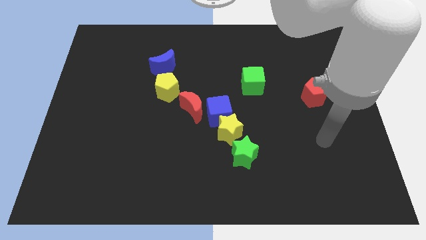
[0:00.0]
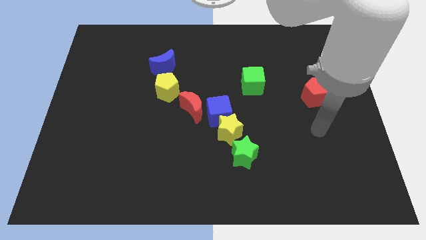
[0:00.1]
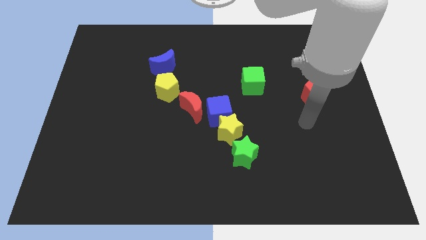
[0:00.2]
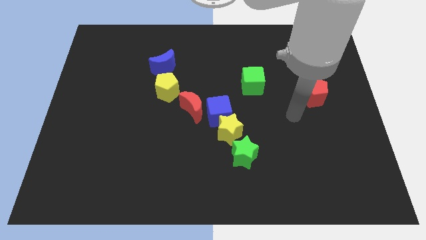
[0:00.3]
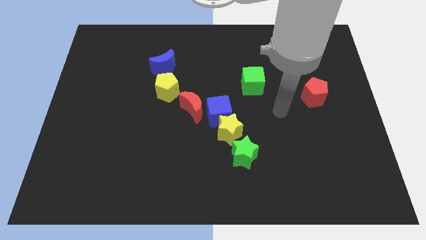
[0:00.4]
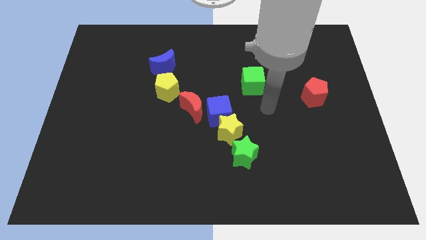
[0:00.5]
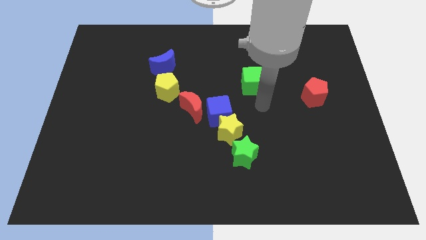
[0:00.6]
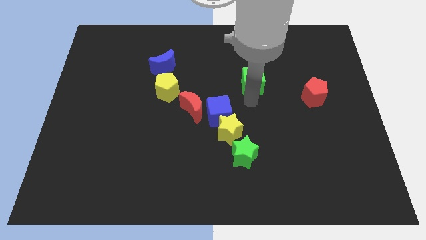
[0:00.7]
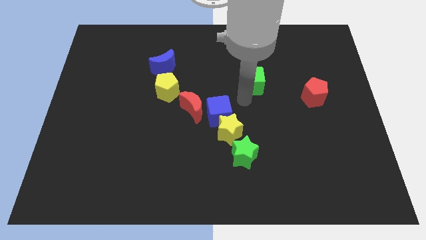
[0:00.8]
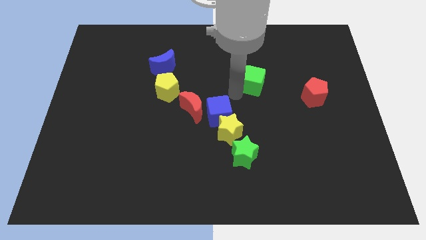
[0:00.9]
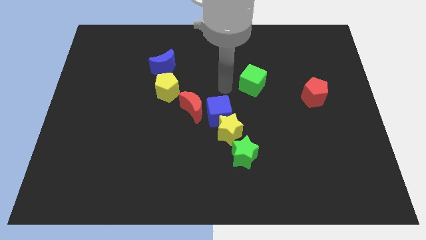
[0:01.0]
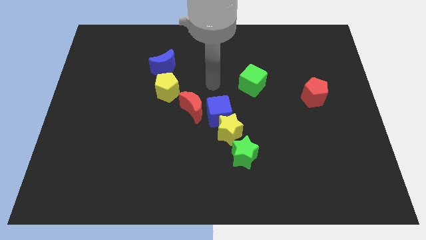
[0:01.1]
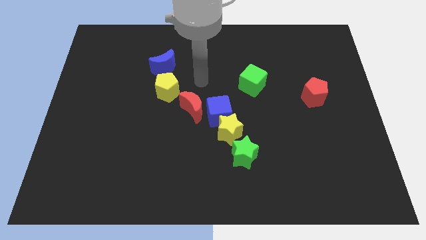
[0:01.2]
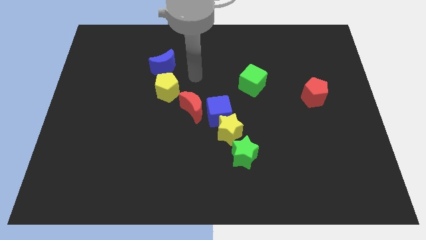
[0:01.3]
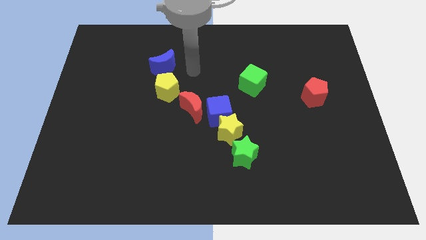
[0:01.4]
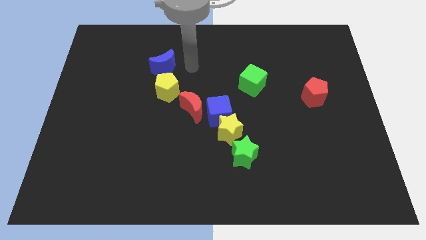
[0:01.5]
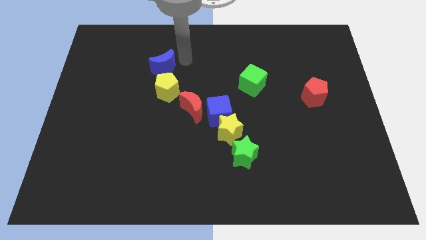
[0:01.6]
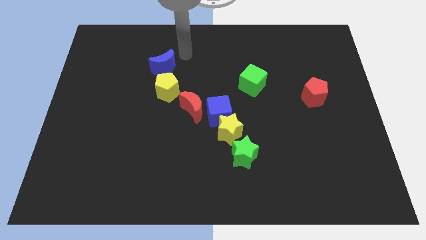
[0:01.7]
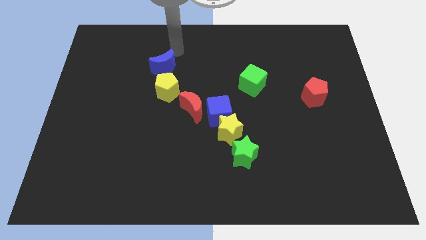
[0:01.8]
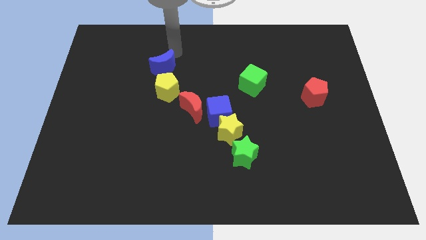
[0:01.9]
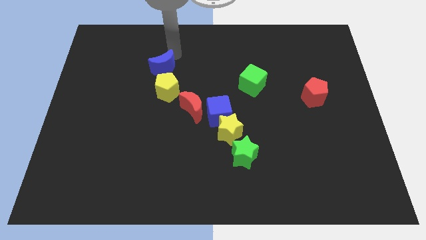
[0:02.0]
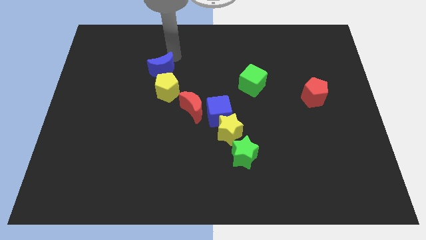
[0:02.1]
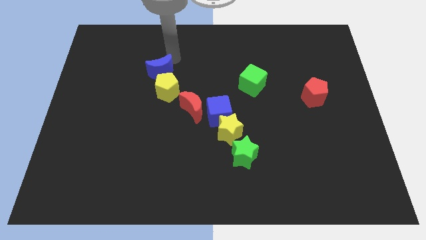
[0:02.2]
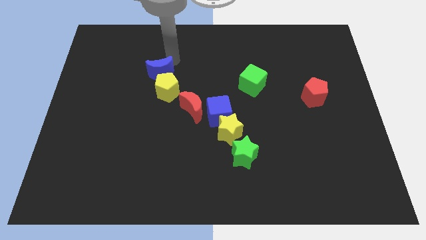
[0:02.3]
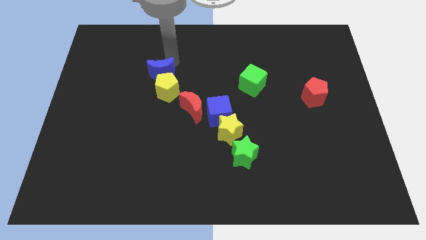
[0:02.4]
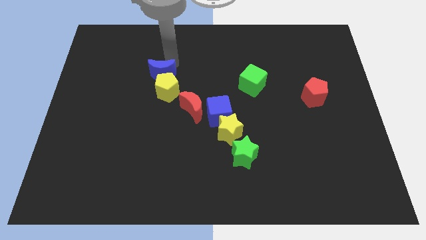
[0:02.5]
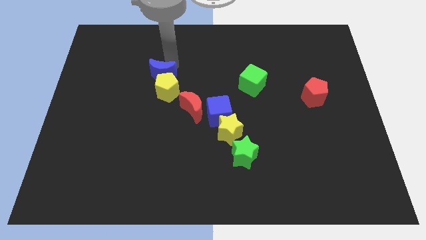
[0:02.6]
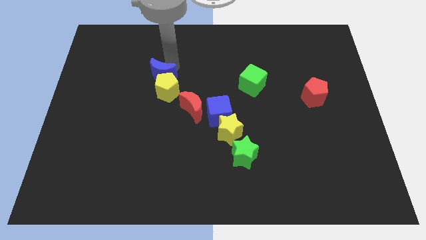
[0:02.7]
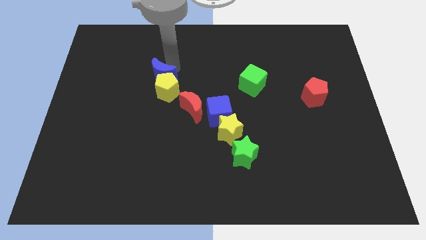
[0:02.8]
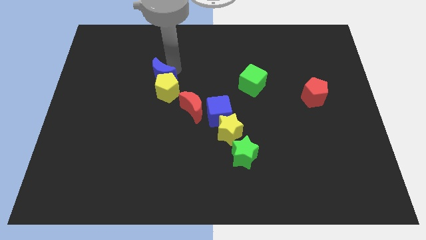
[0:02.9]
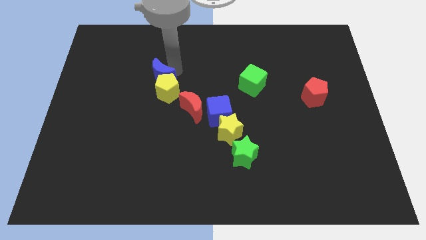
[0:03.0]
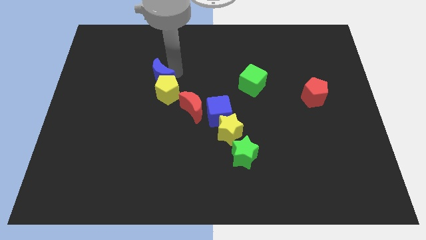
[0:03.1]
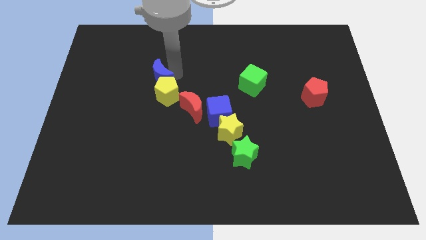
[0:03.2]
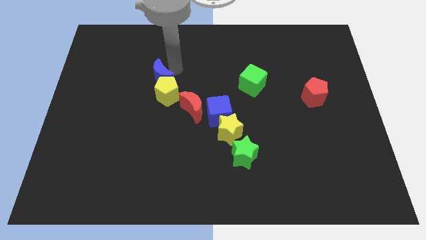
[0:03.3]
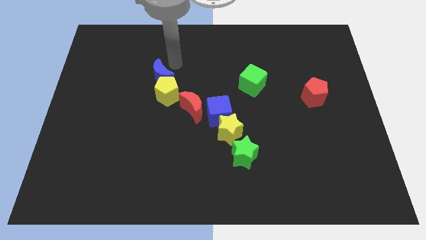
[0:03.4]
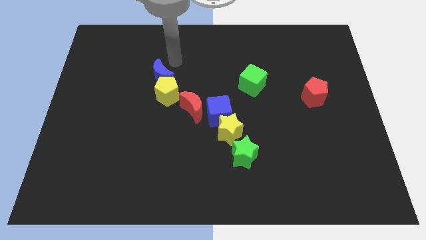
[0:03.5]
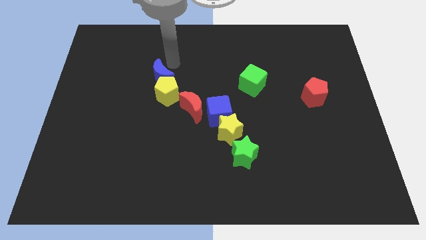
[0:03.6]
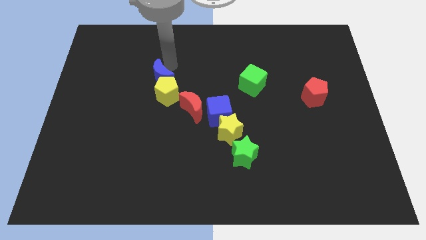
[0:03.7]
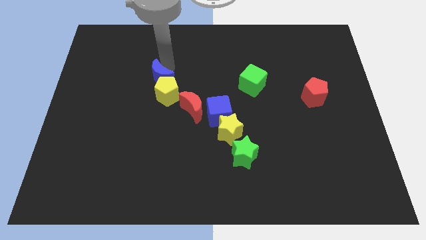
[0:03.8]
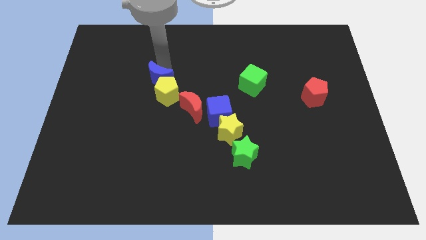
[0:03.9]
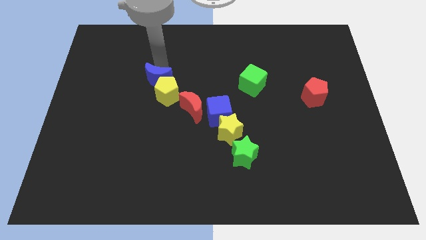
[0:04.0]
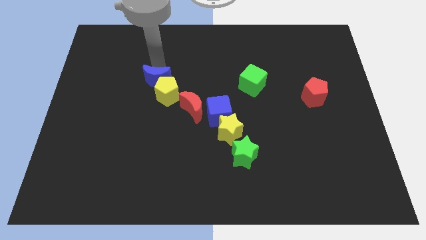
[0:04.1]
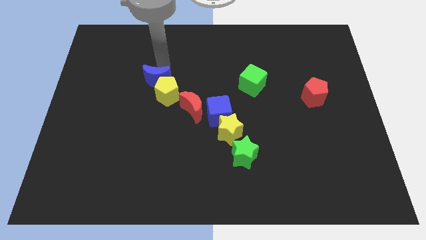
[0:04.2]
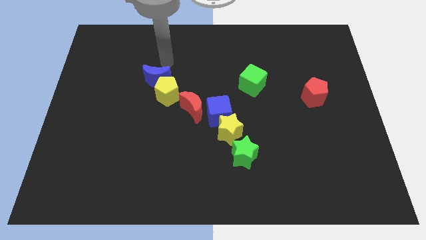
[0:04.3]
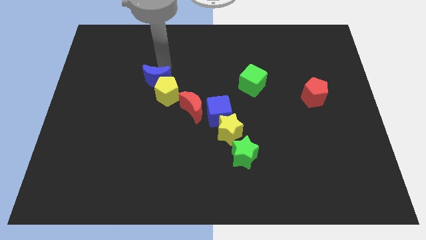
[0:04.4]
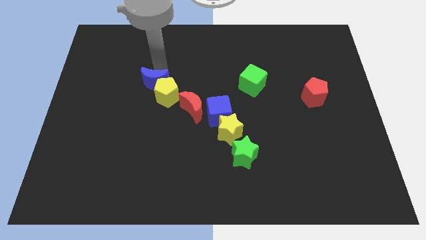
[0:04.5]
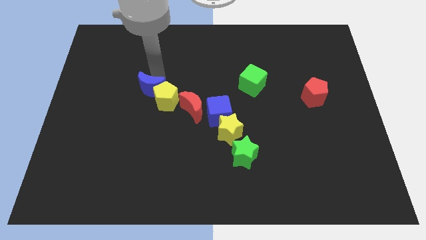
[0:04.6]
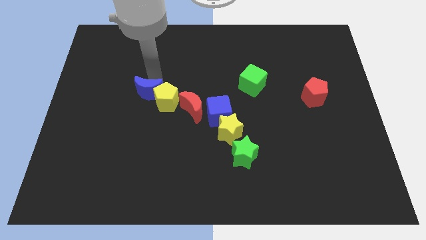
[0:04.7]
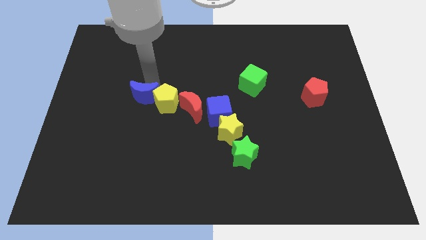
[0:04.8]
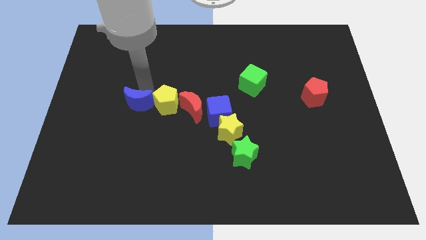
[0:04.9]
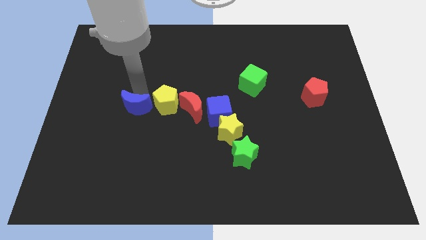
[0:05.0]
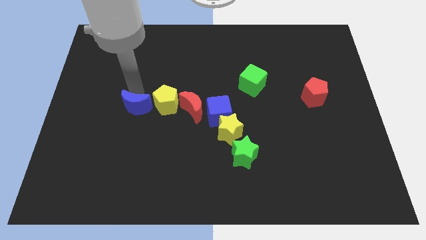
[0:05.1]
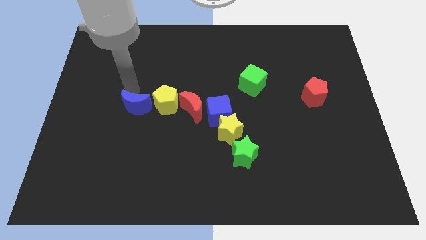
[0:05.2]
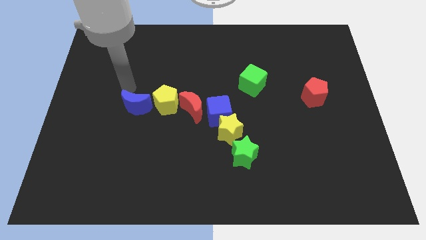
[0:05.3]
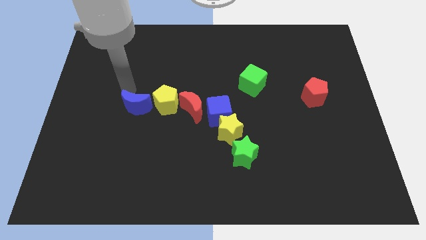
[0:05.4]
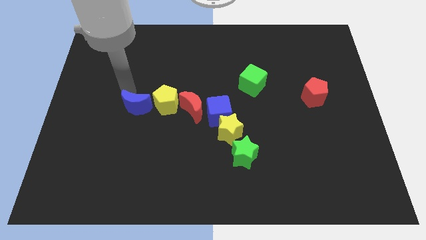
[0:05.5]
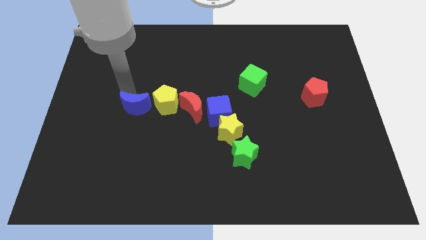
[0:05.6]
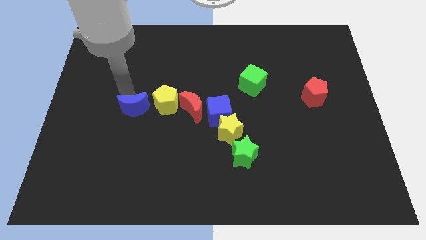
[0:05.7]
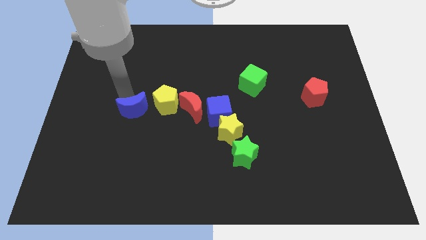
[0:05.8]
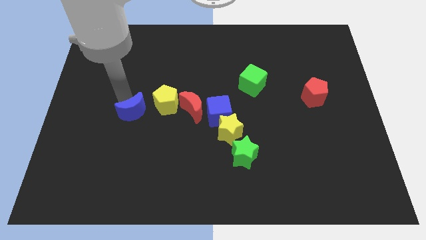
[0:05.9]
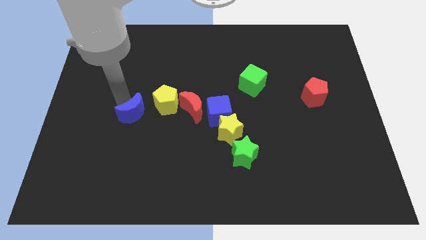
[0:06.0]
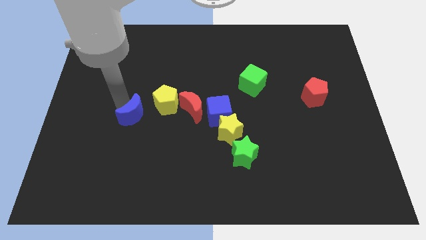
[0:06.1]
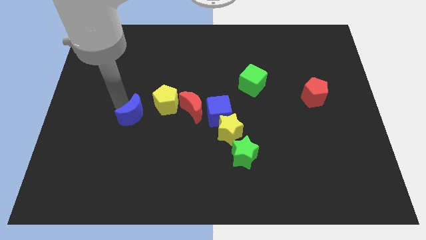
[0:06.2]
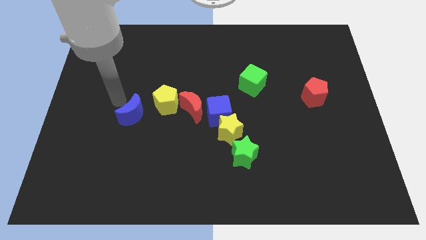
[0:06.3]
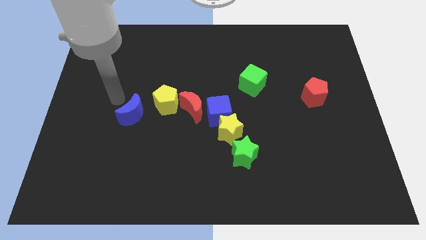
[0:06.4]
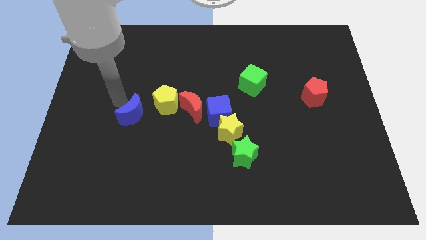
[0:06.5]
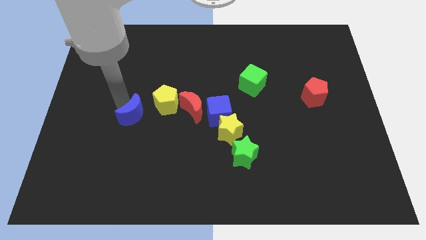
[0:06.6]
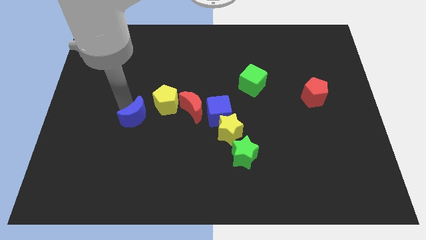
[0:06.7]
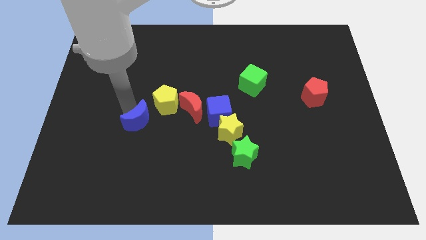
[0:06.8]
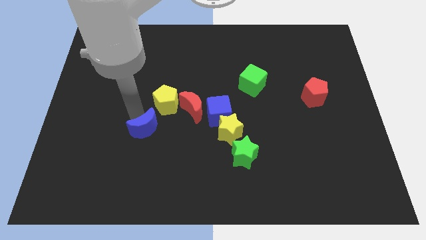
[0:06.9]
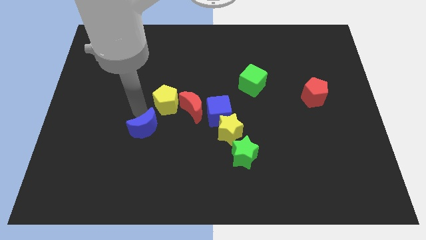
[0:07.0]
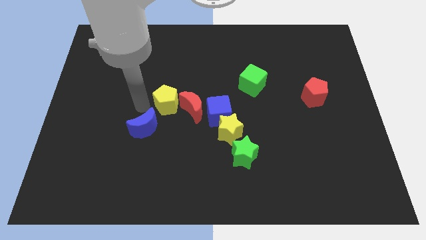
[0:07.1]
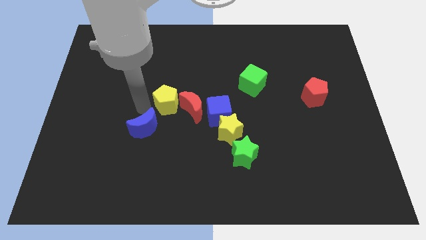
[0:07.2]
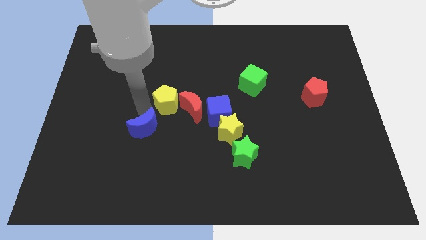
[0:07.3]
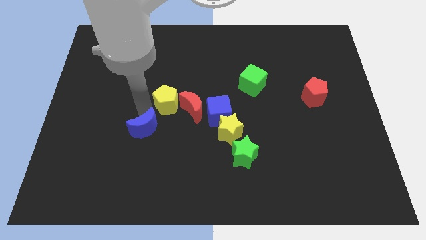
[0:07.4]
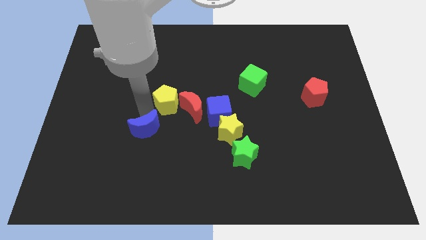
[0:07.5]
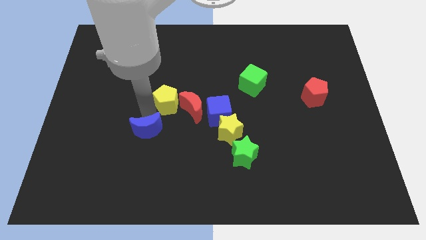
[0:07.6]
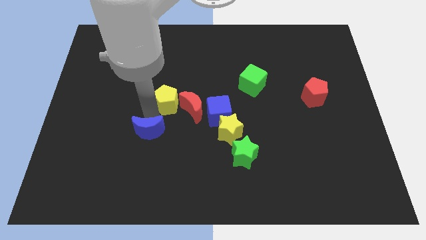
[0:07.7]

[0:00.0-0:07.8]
slide the blue moon downwards

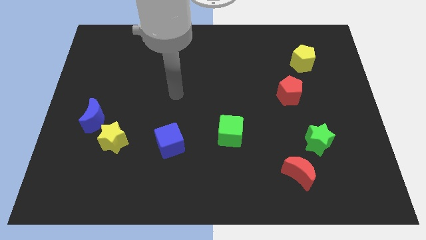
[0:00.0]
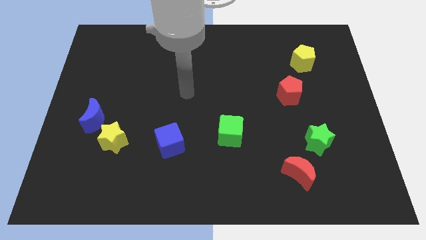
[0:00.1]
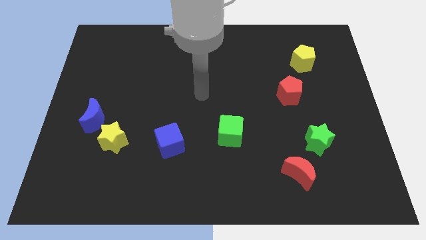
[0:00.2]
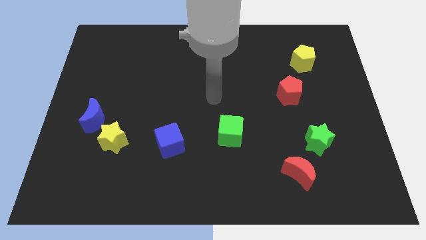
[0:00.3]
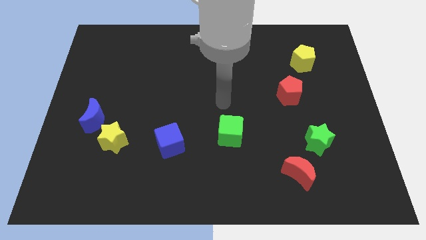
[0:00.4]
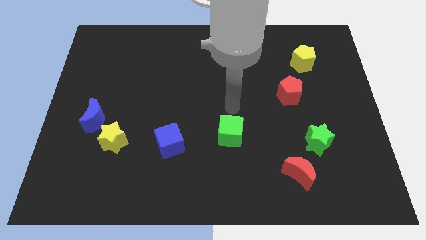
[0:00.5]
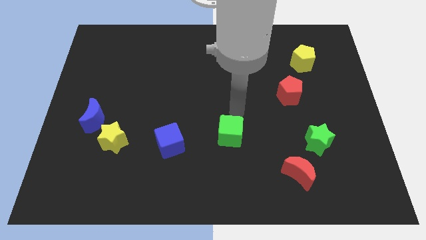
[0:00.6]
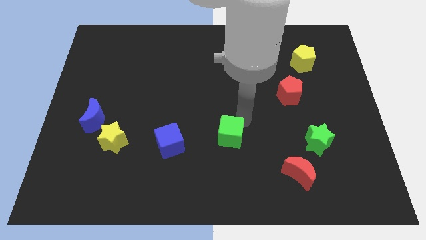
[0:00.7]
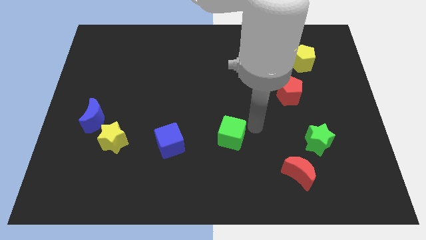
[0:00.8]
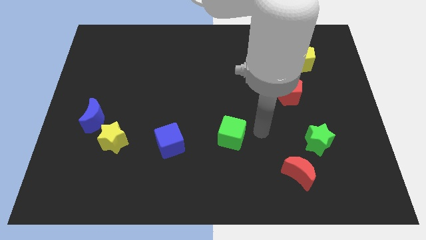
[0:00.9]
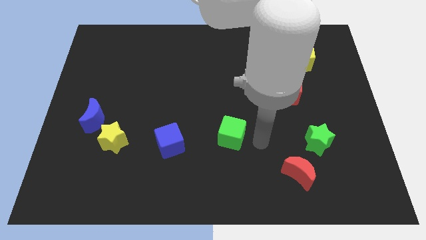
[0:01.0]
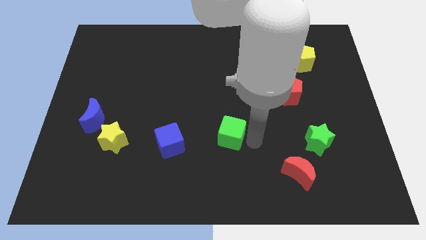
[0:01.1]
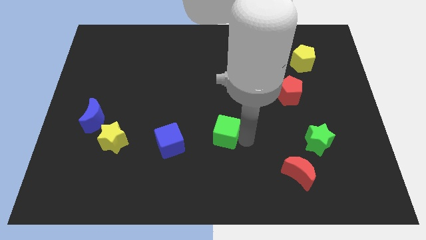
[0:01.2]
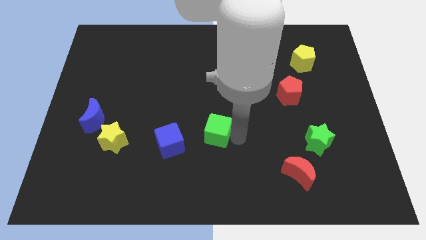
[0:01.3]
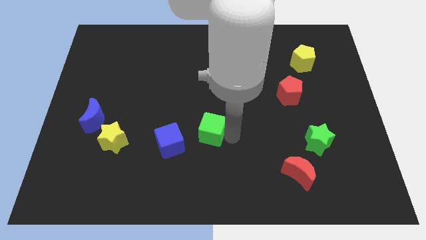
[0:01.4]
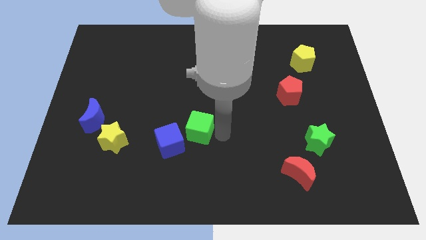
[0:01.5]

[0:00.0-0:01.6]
slightly slide the green cube left
